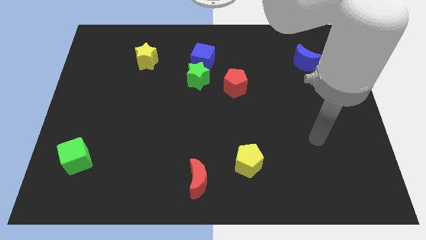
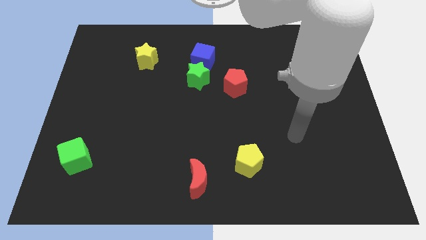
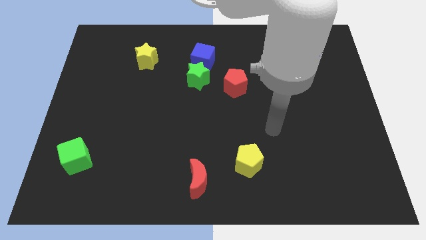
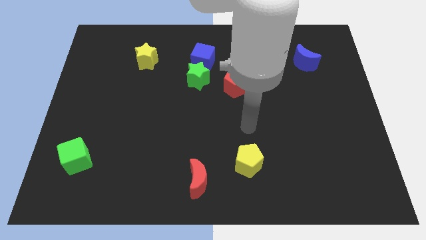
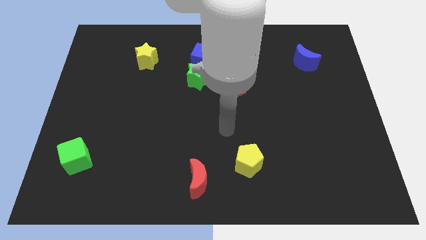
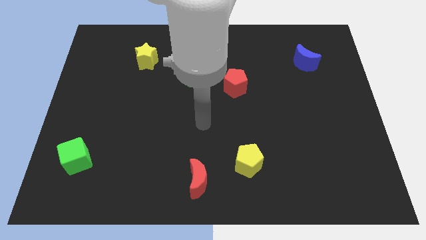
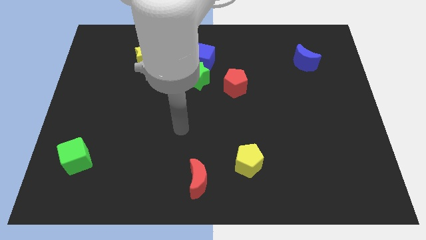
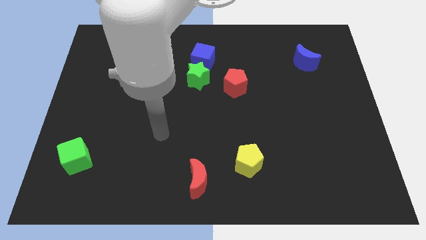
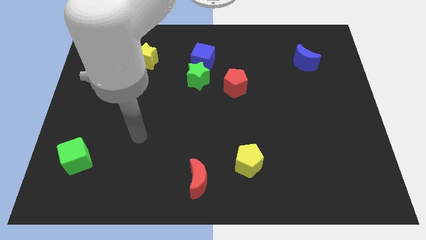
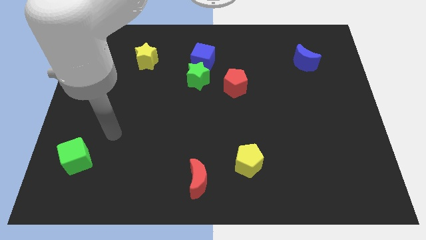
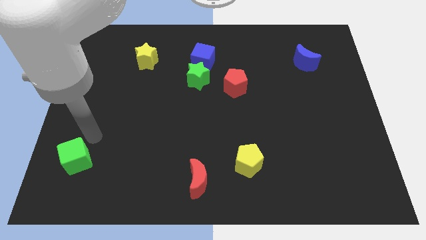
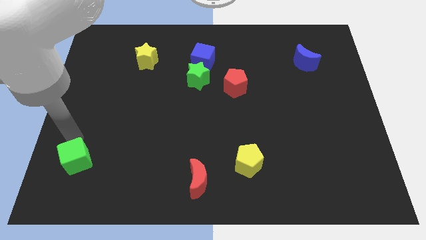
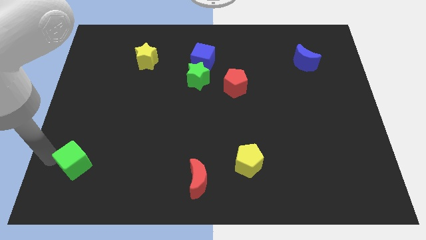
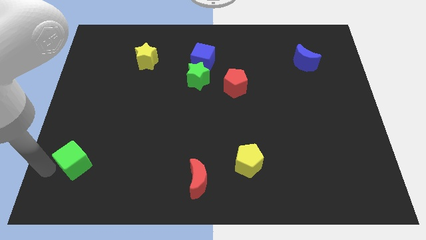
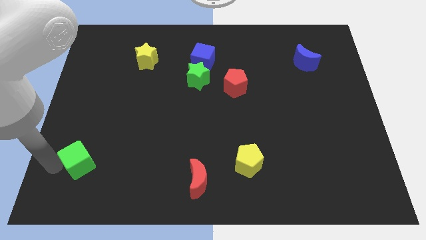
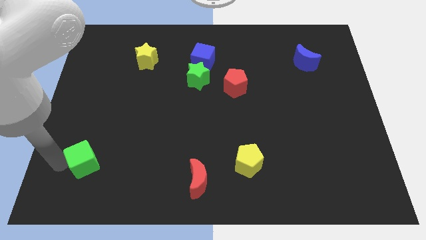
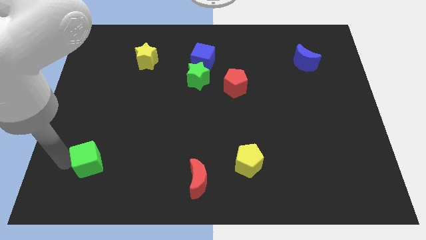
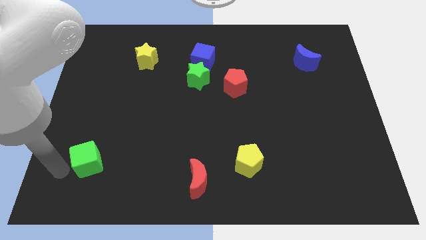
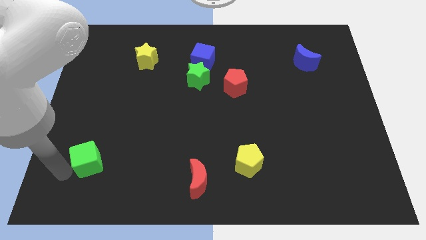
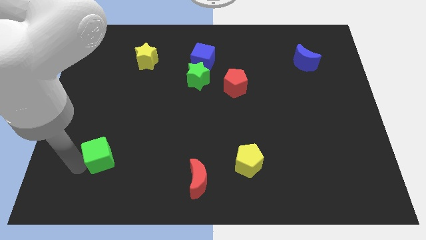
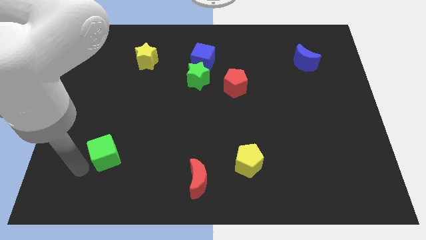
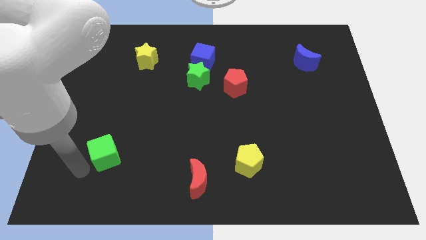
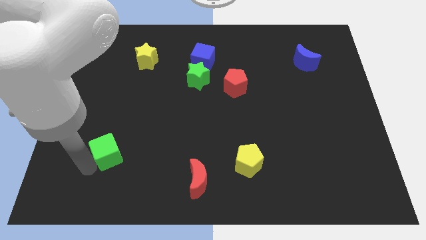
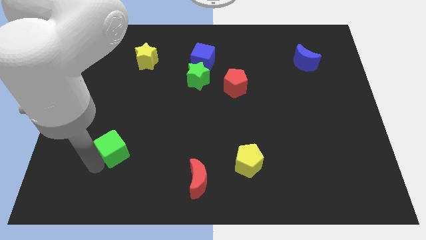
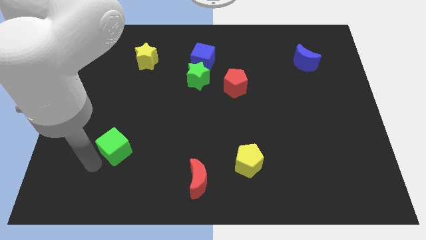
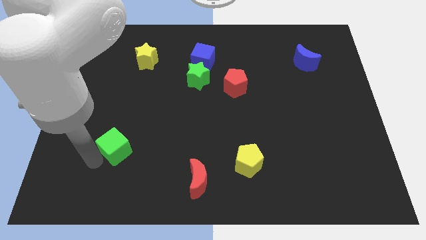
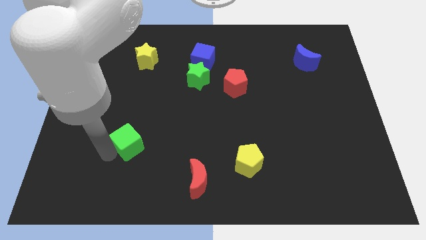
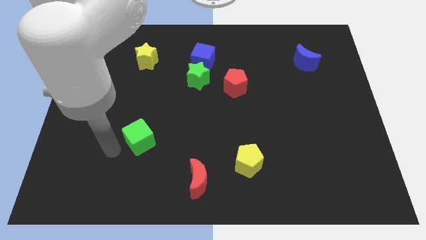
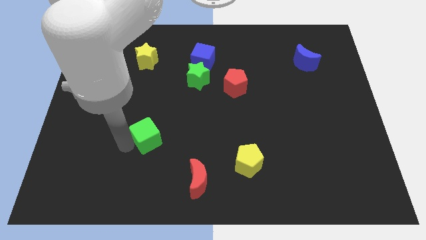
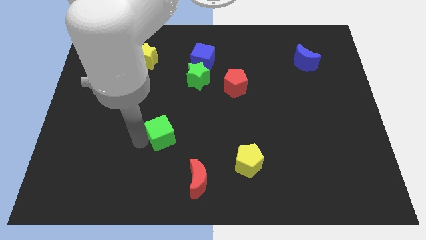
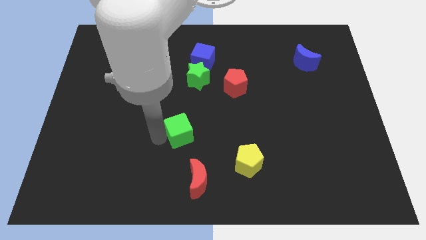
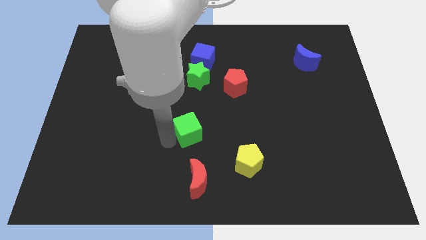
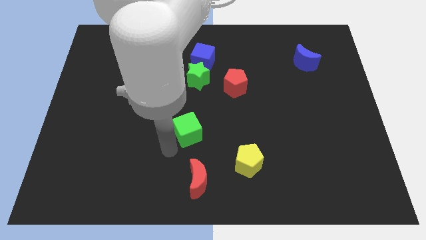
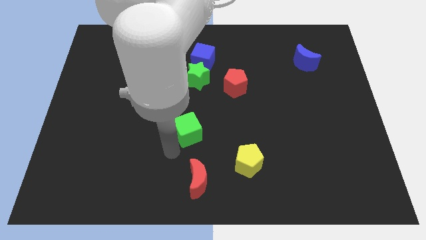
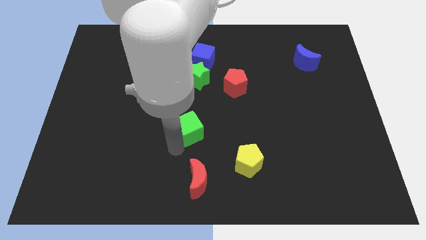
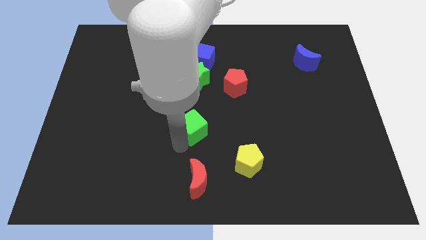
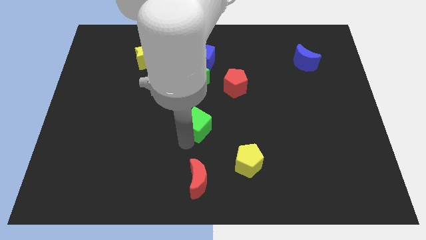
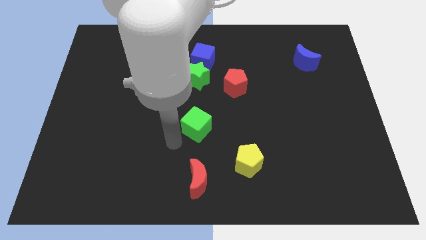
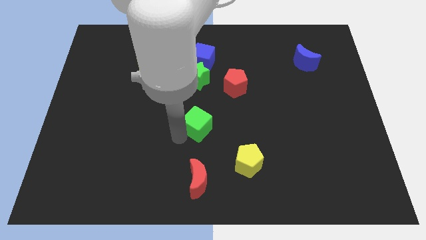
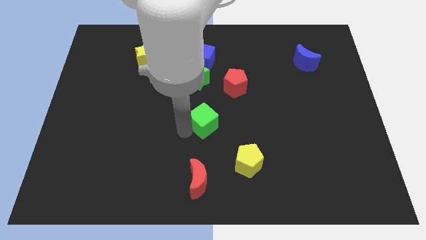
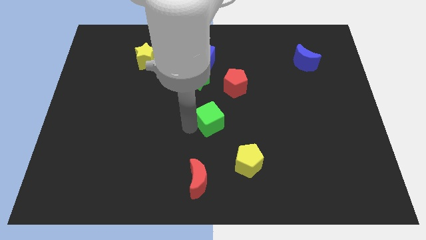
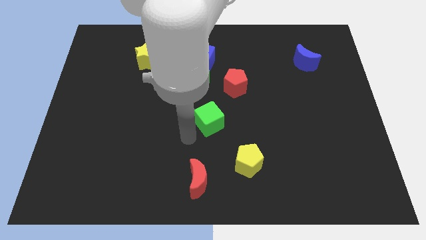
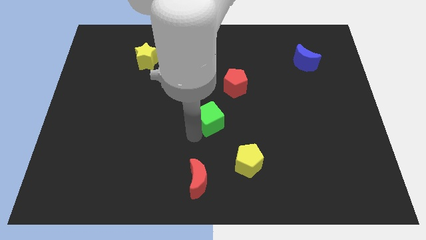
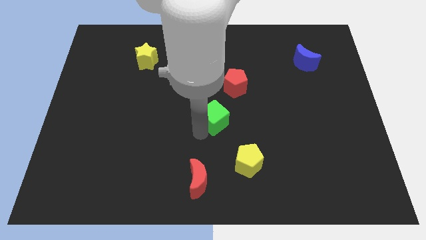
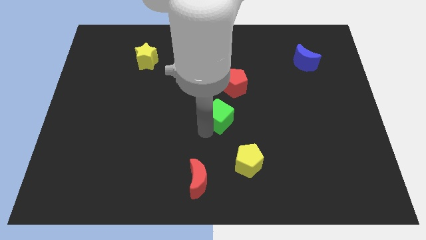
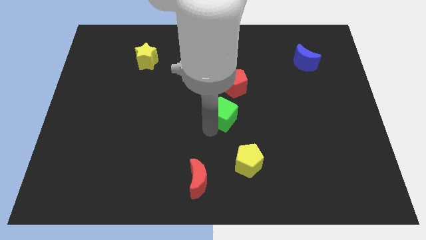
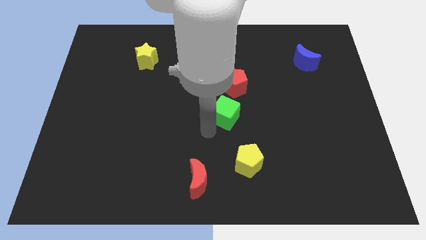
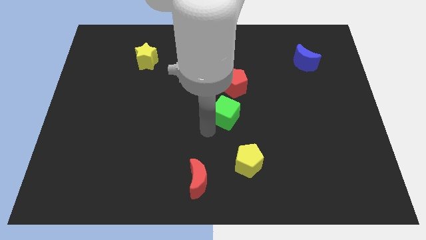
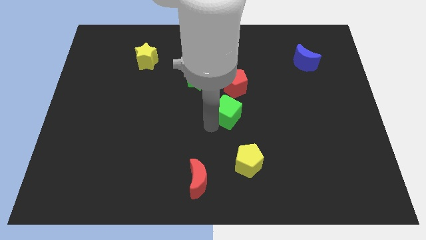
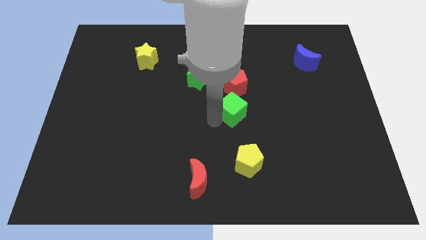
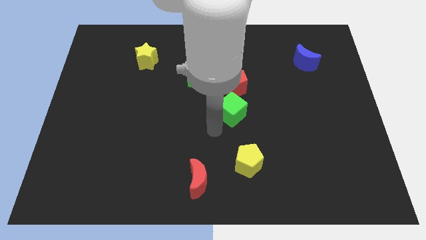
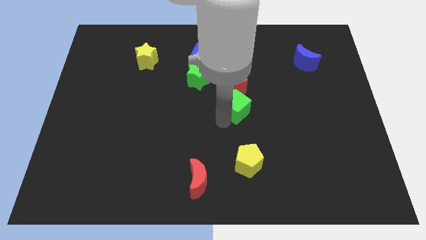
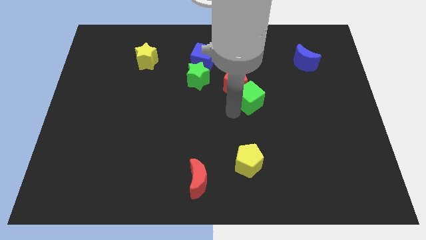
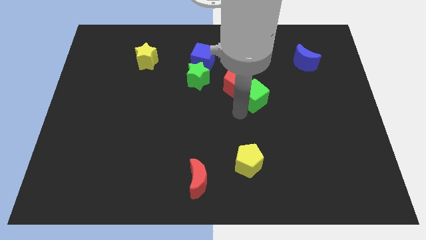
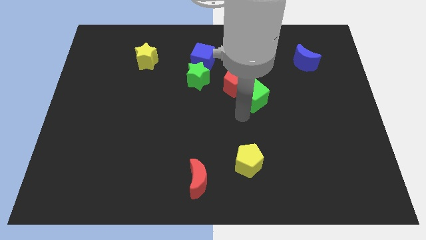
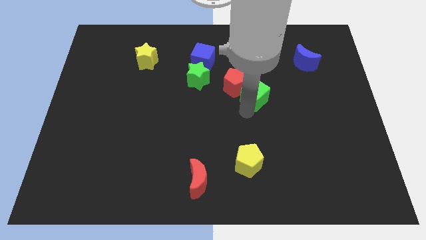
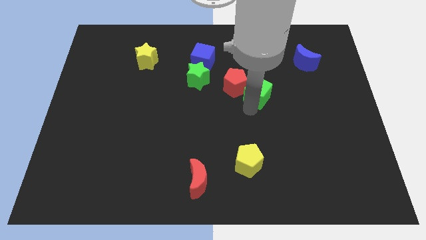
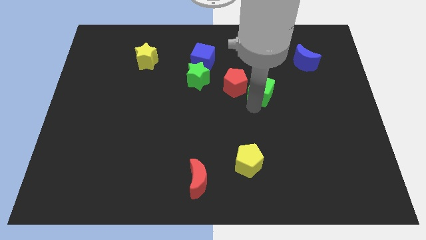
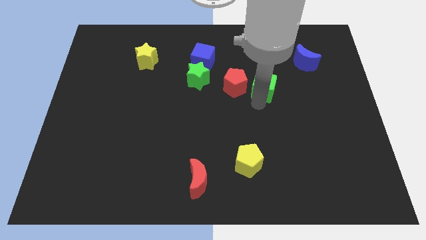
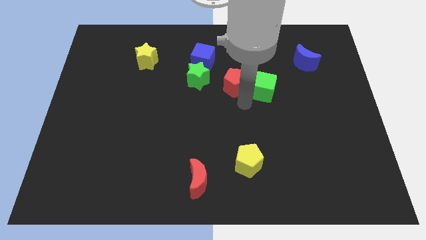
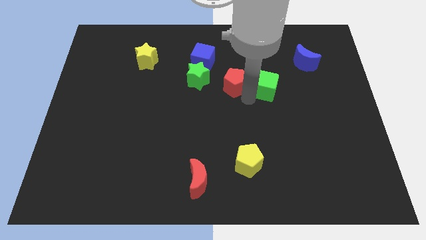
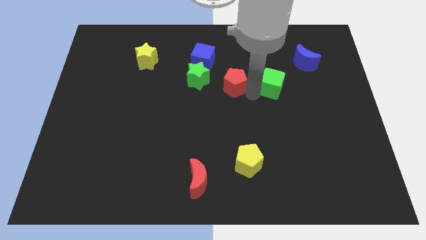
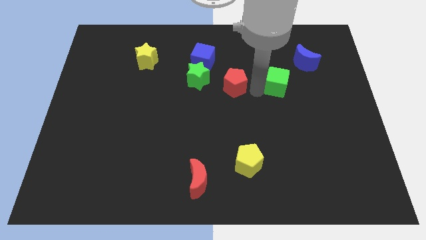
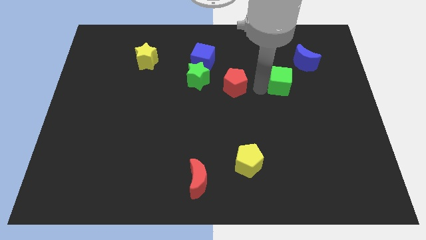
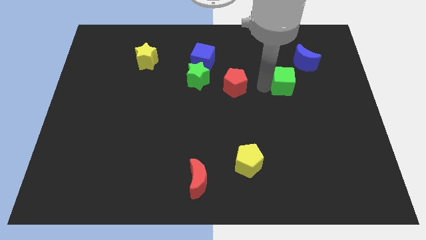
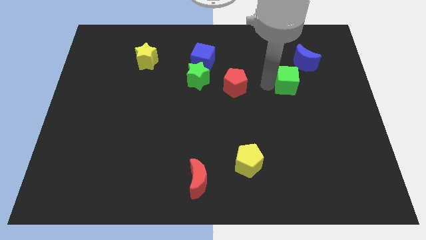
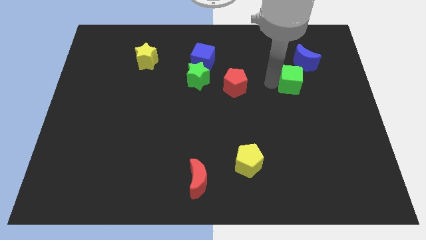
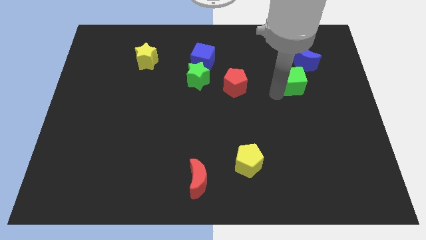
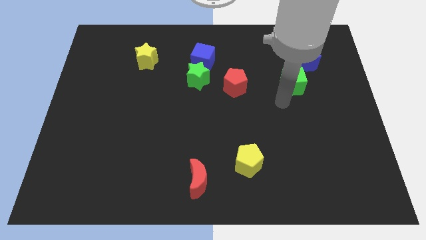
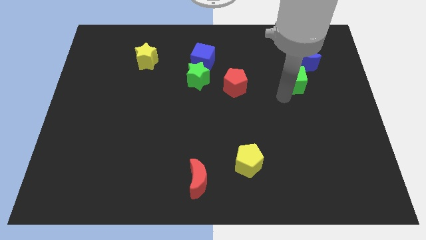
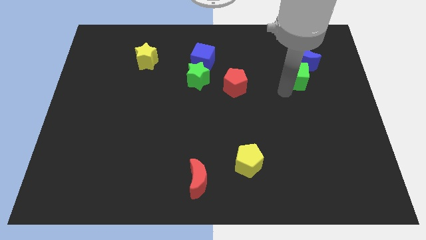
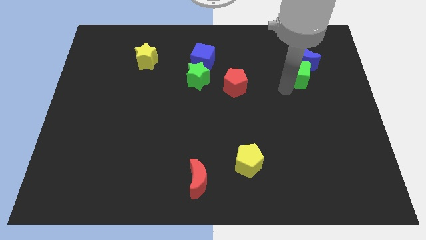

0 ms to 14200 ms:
move the green cube close to the blue moon

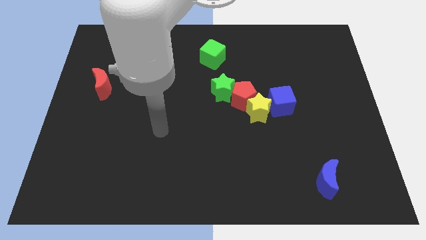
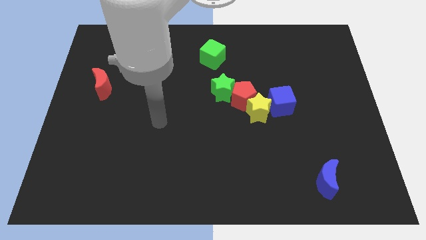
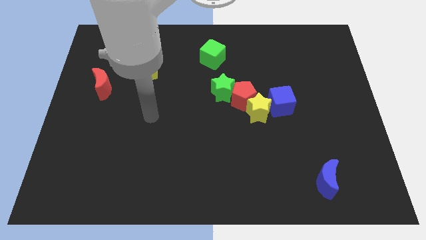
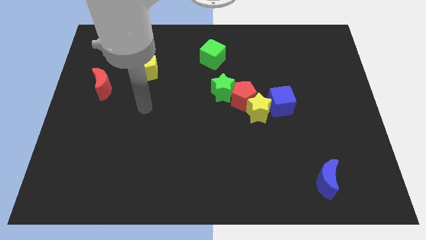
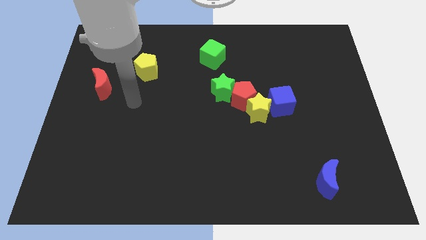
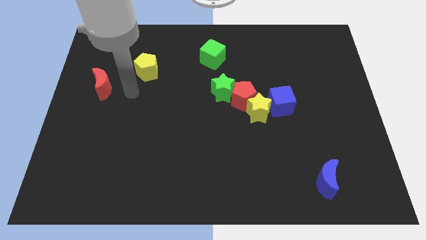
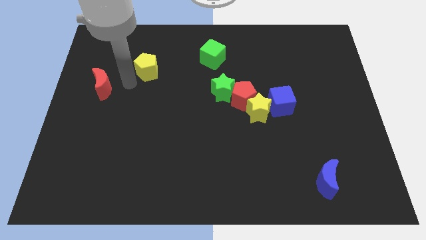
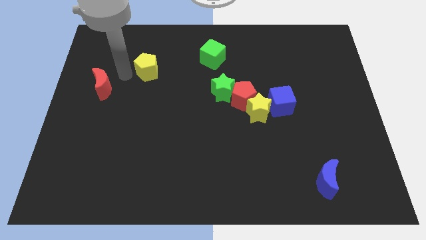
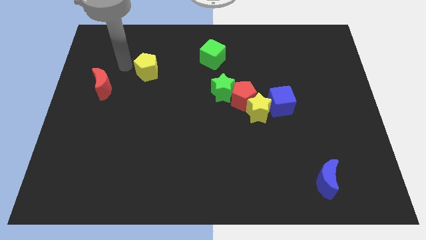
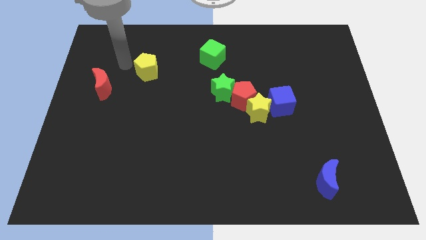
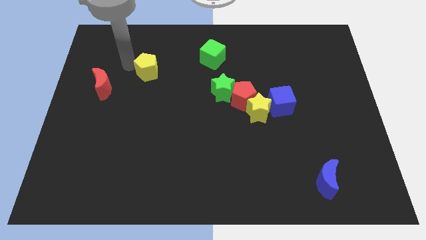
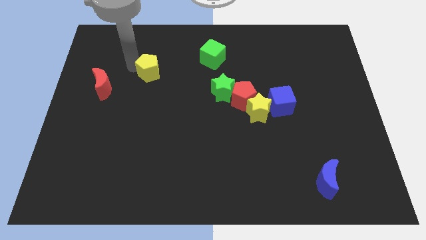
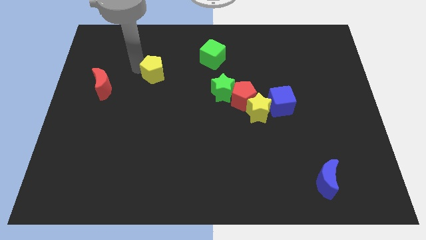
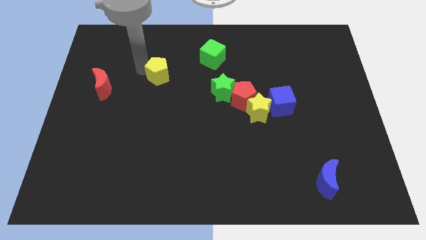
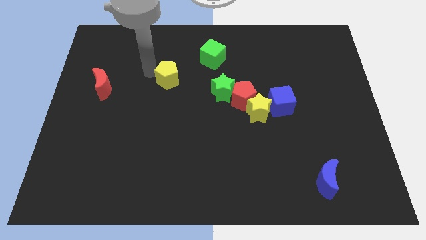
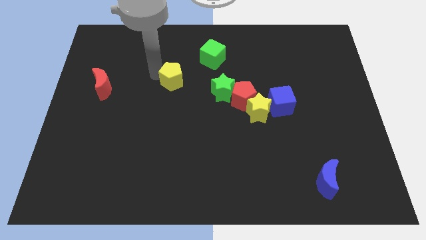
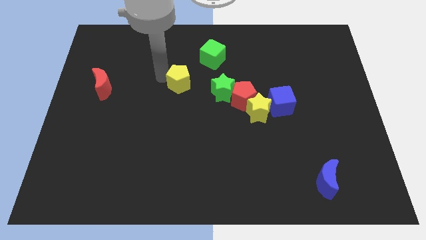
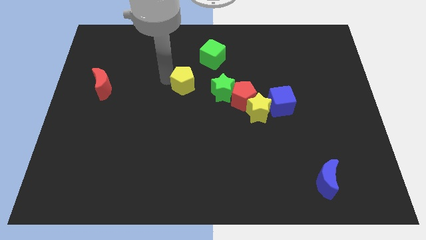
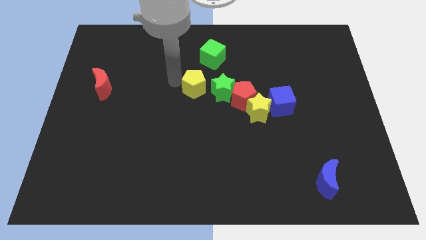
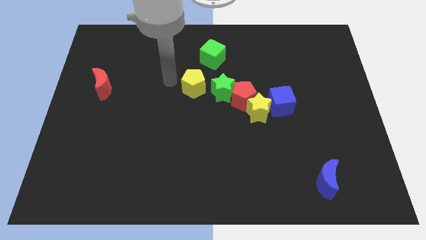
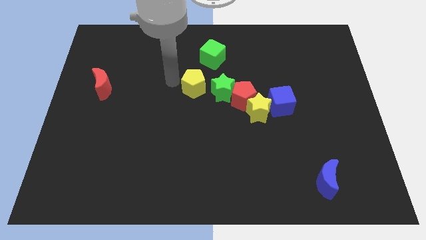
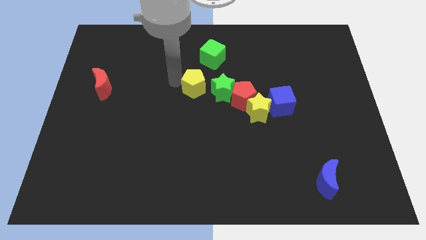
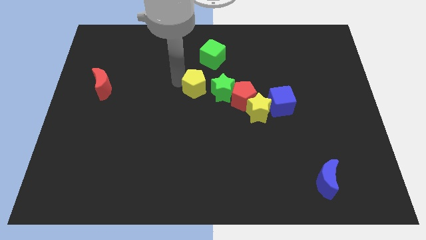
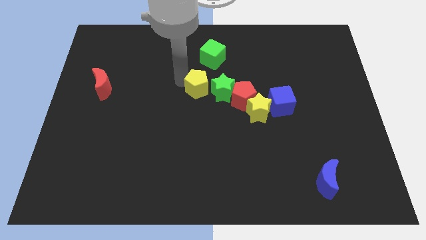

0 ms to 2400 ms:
move the yellow pentagon towards the green star
